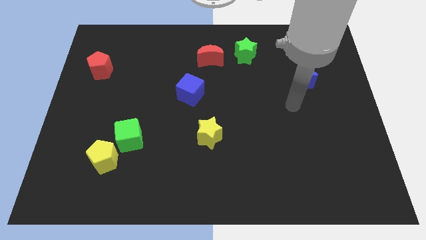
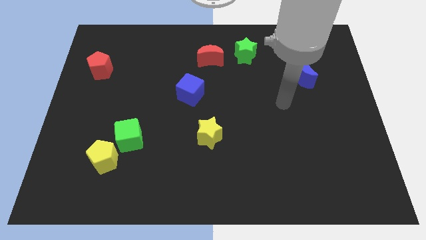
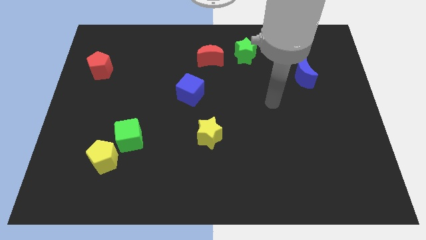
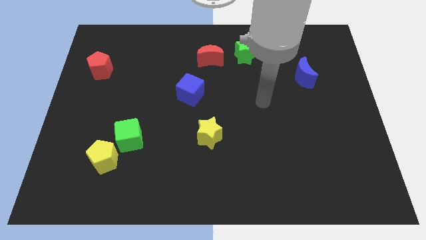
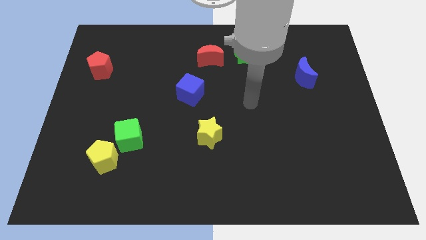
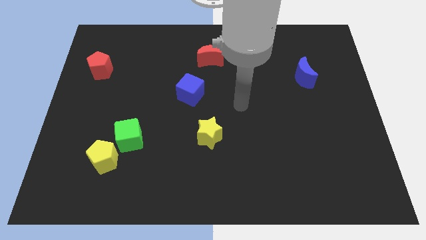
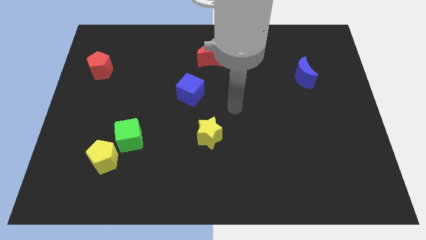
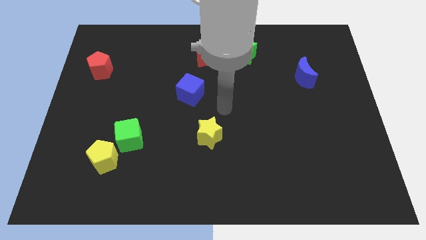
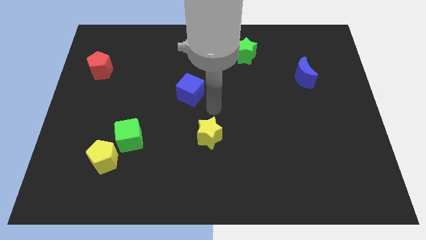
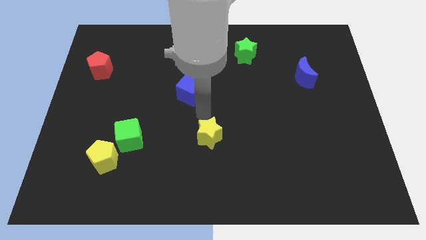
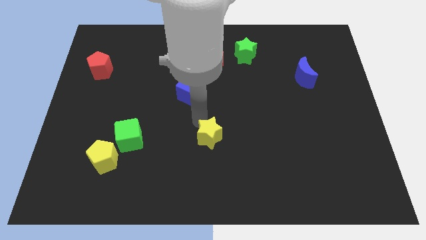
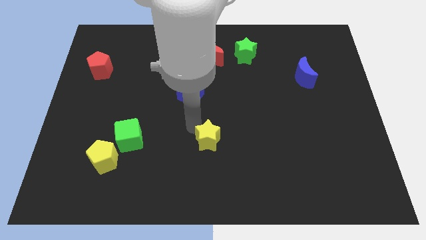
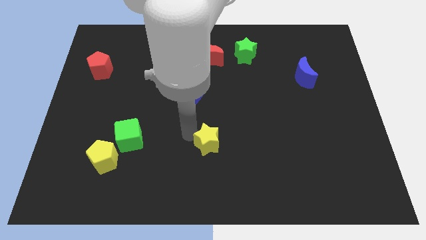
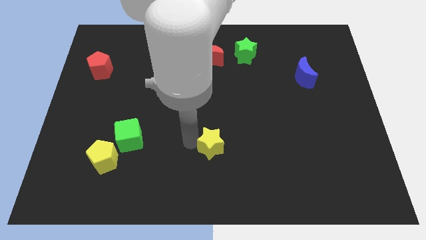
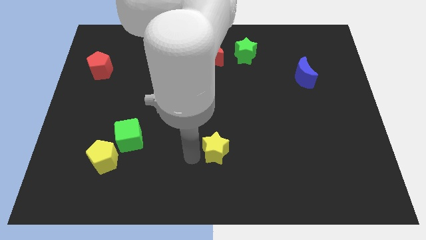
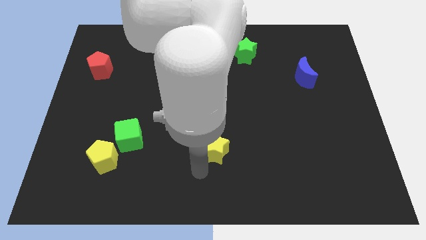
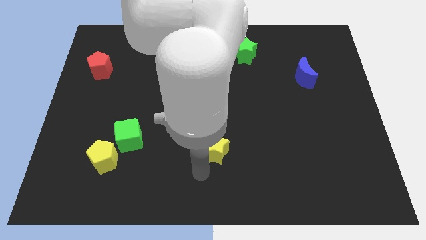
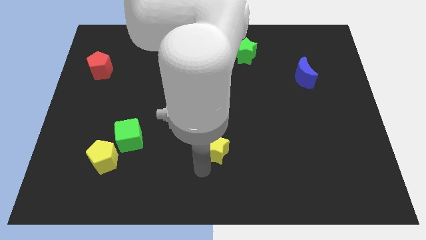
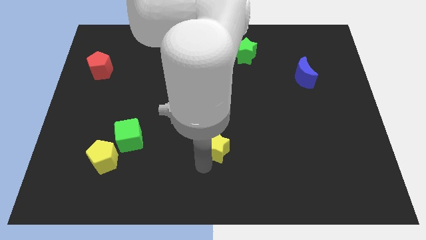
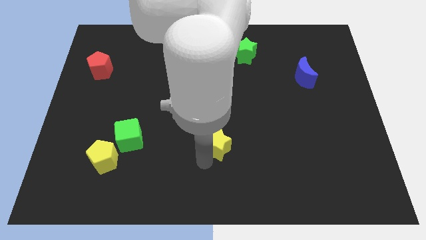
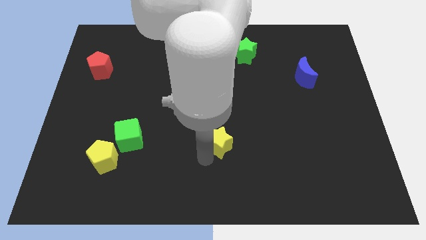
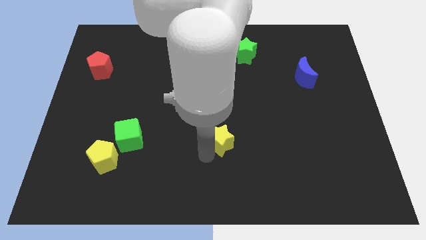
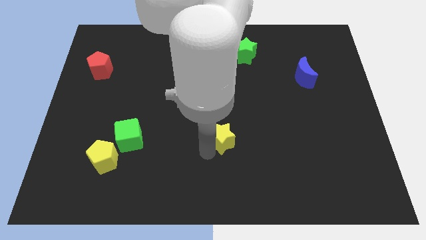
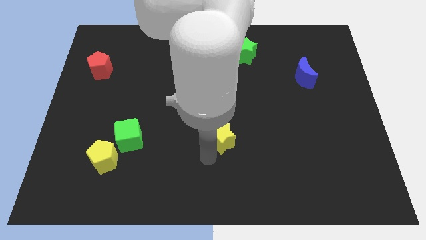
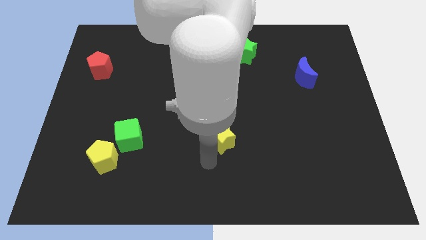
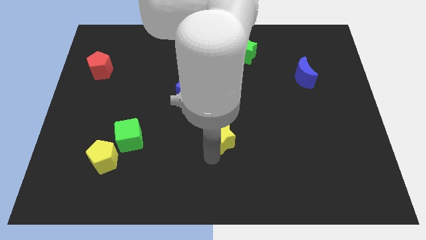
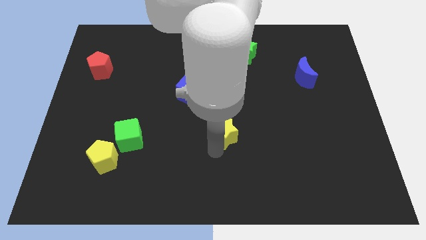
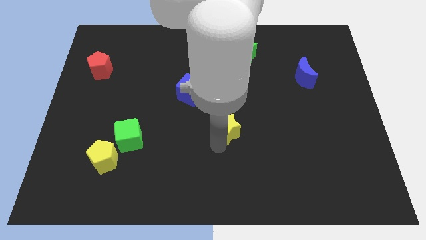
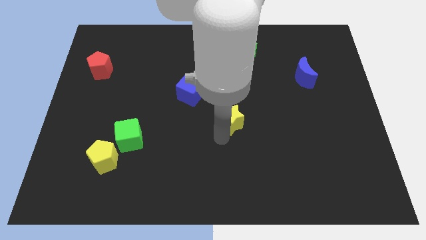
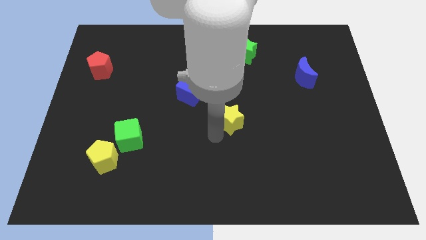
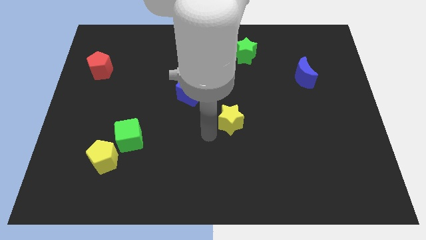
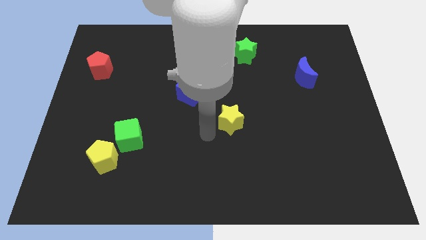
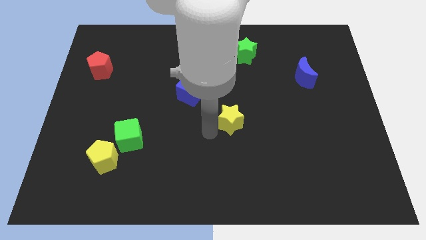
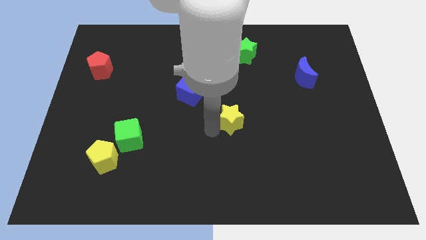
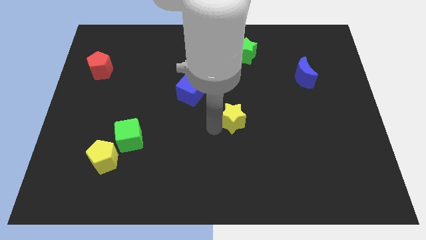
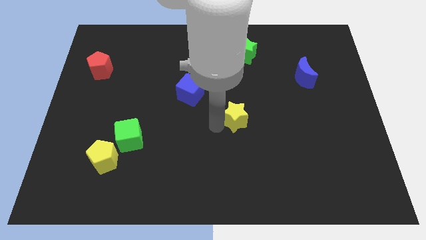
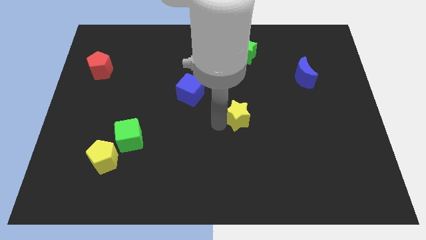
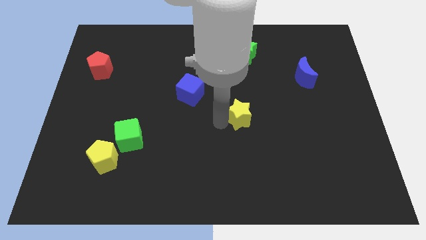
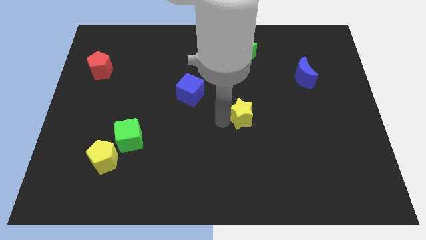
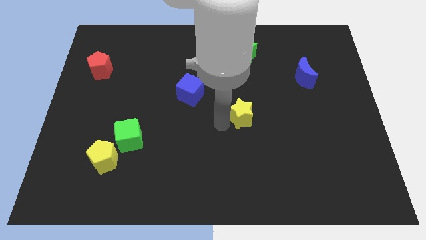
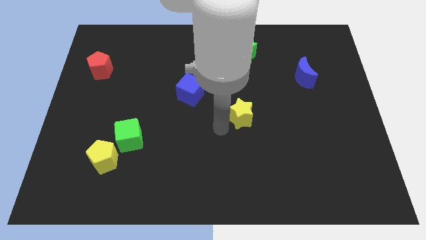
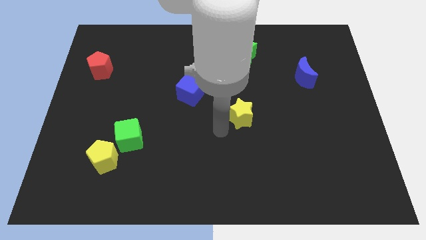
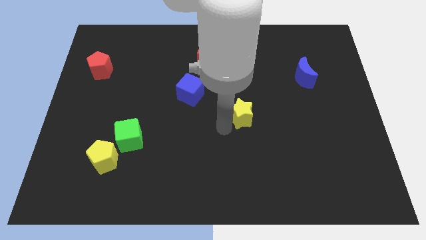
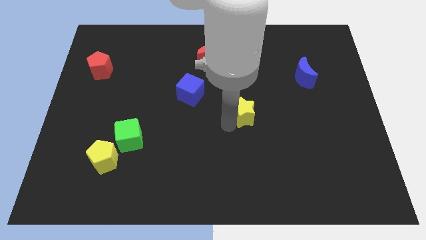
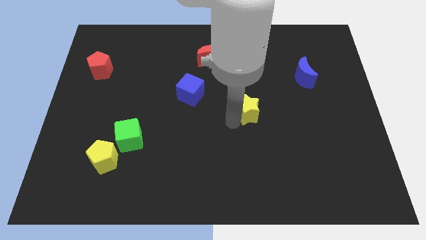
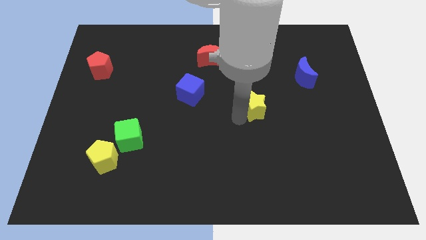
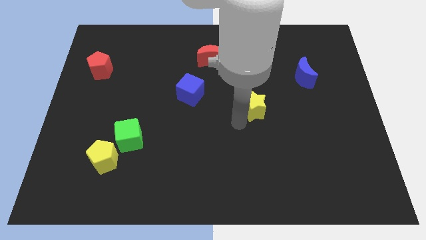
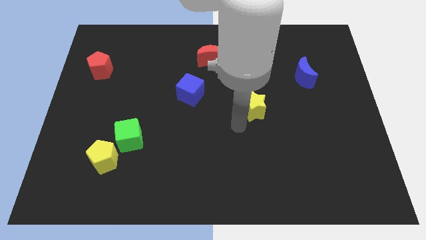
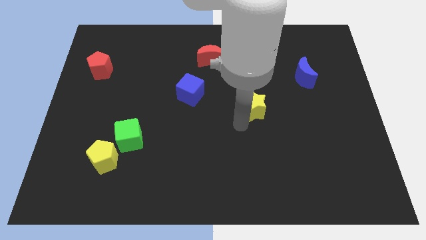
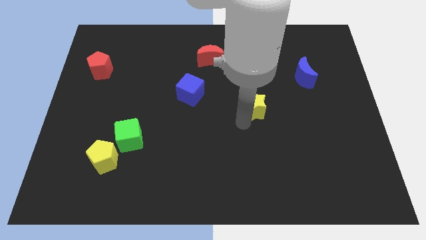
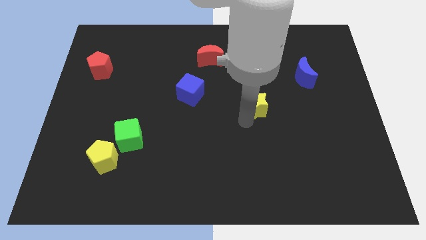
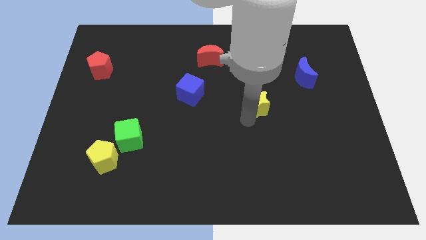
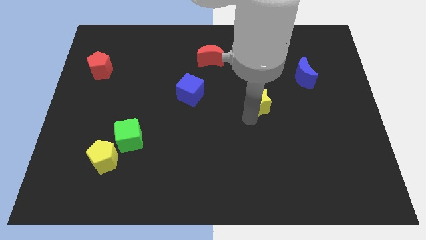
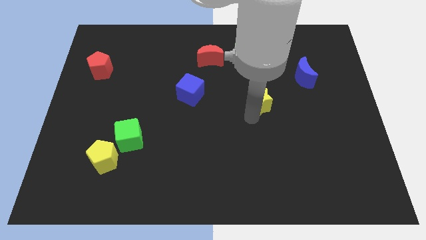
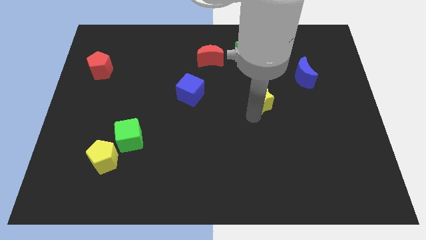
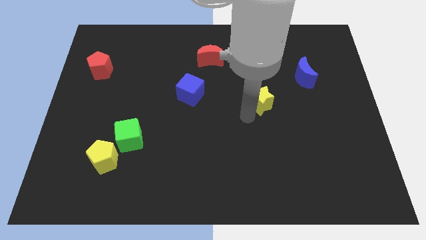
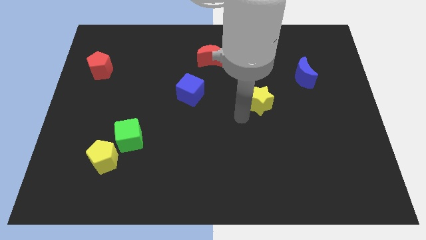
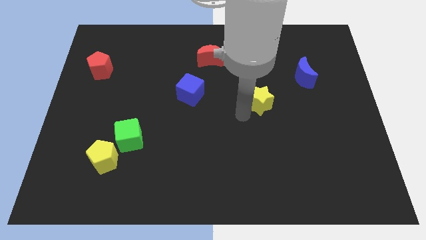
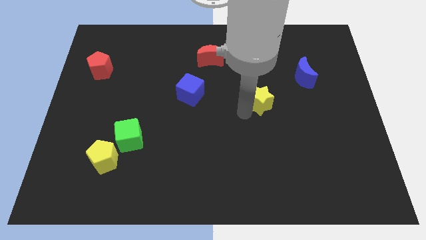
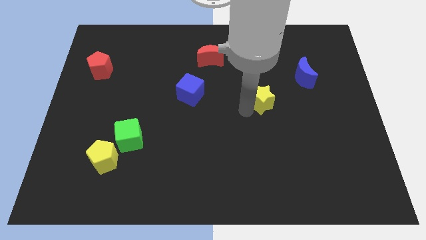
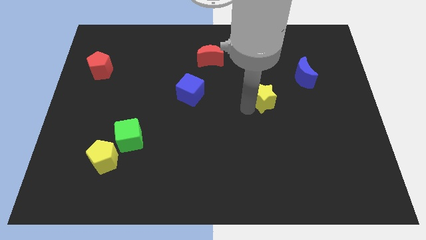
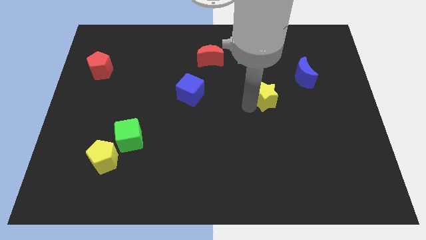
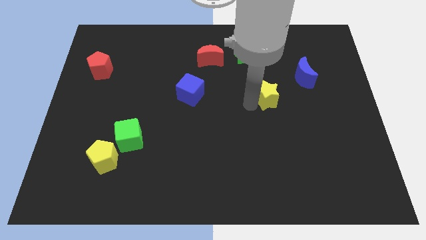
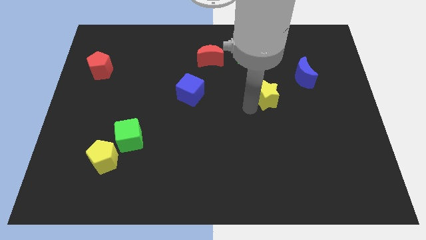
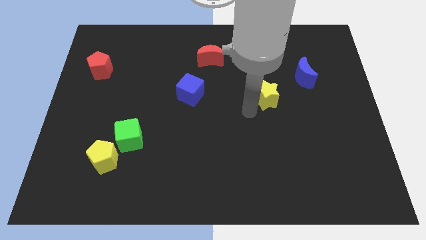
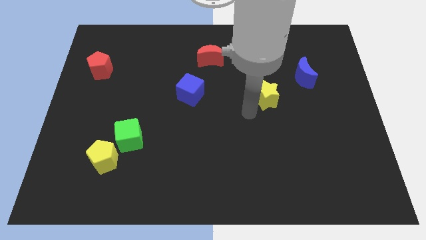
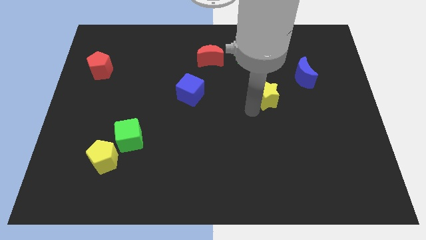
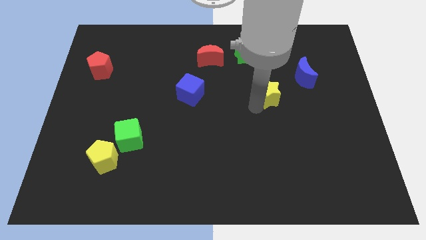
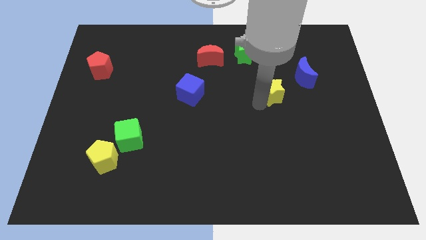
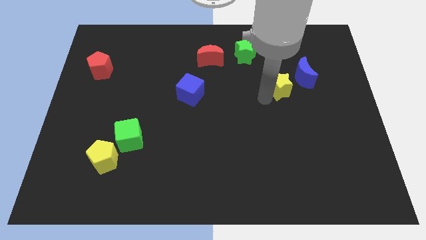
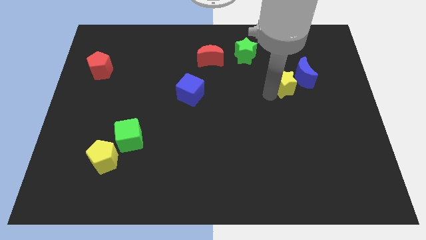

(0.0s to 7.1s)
slide the yellow star to the blue moon

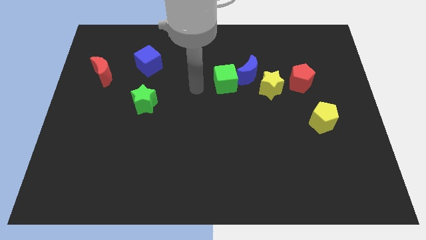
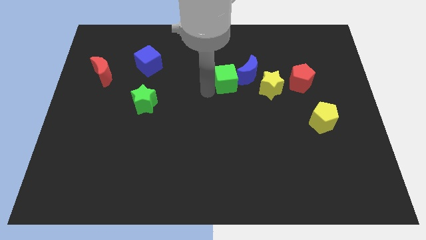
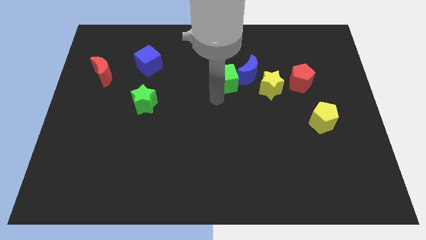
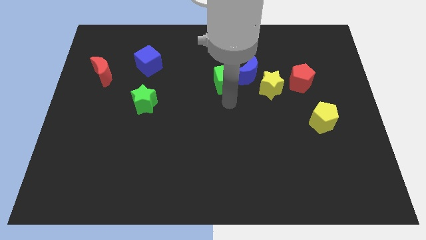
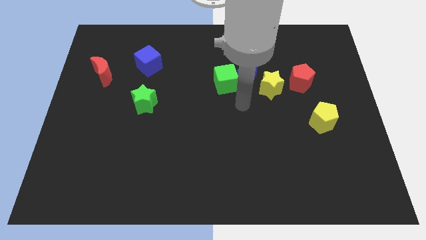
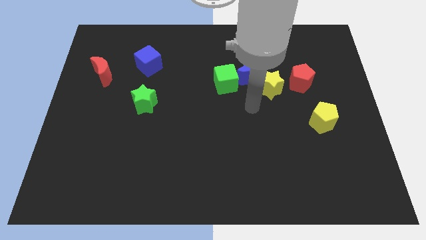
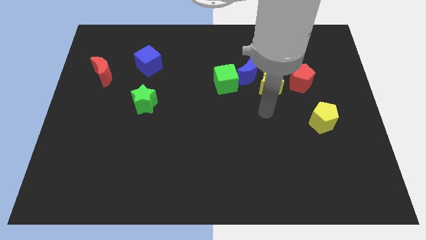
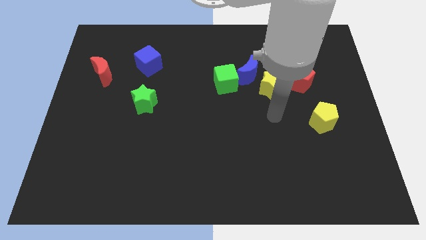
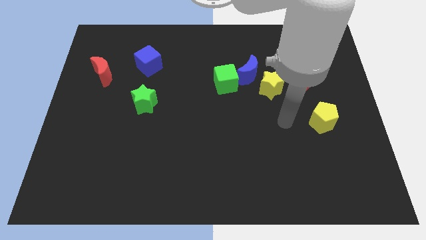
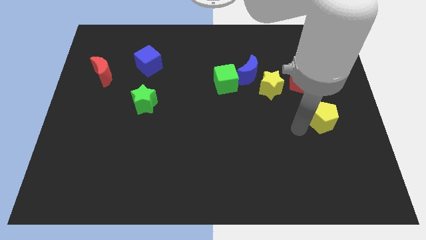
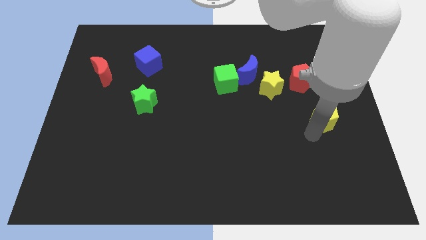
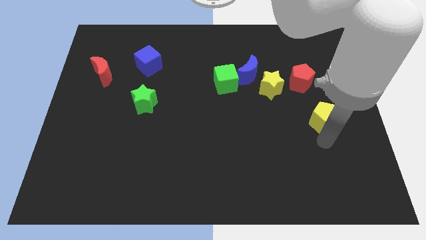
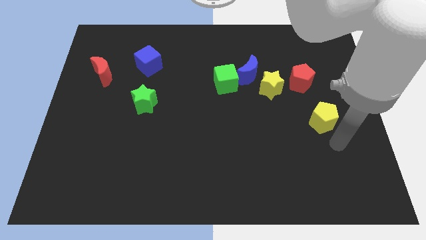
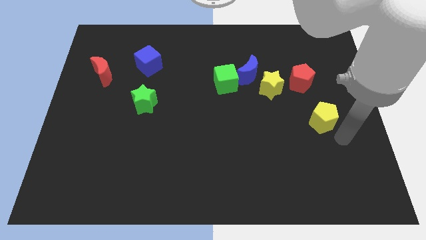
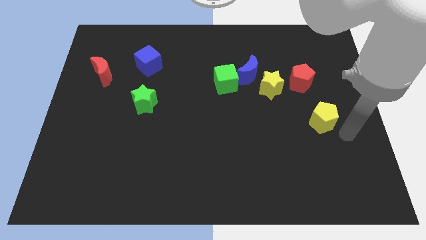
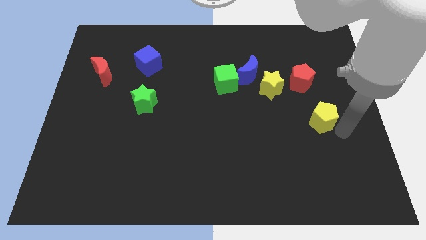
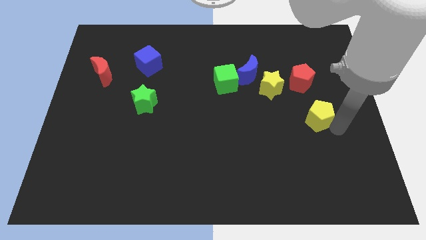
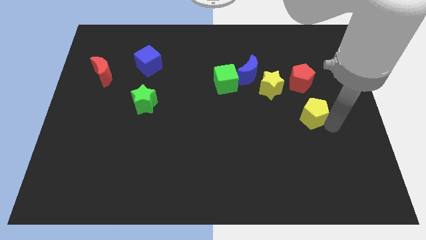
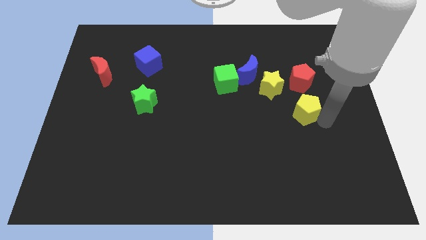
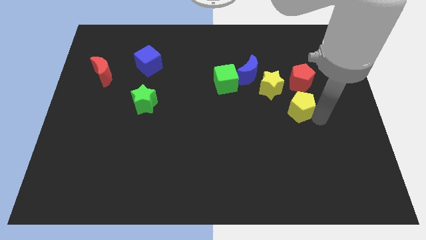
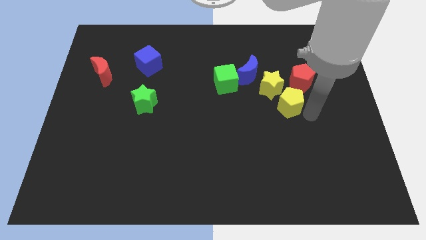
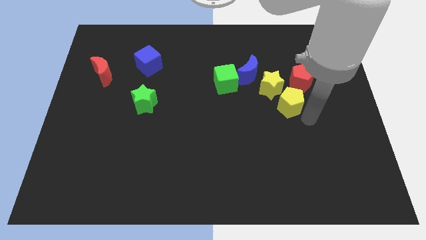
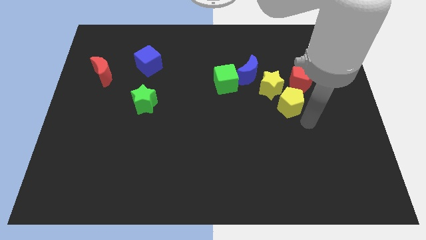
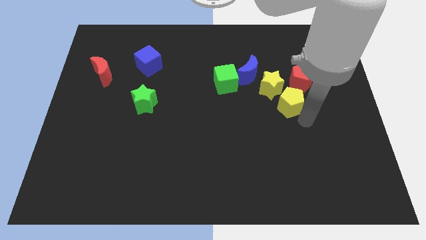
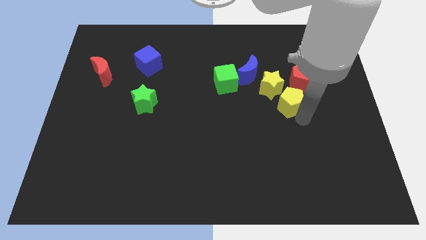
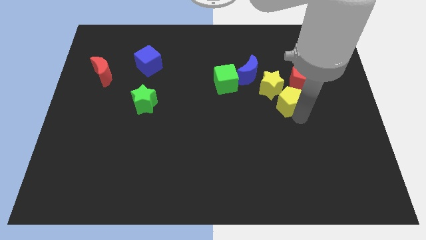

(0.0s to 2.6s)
move the yellow pentagon towards the yellow star
